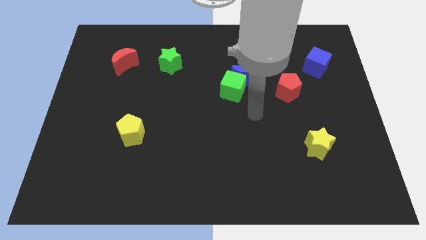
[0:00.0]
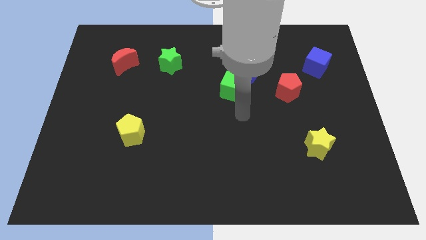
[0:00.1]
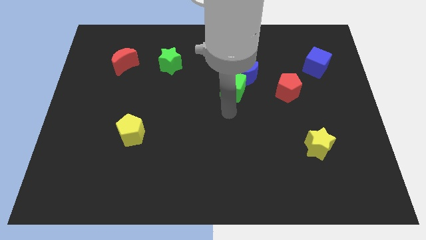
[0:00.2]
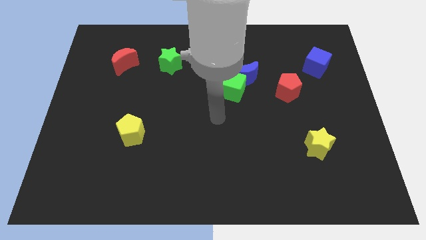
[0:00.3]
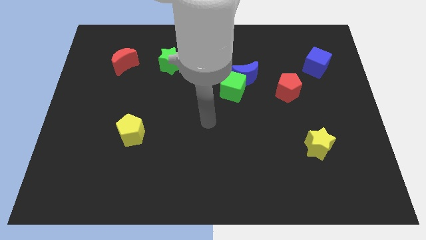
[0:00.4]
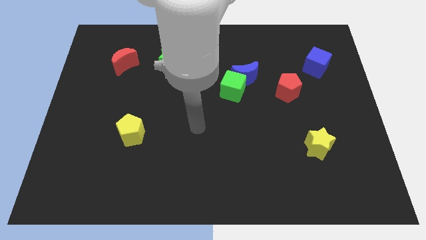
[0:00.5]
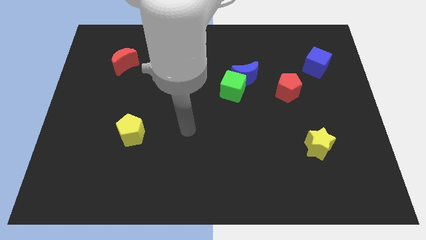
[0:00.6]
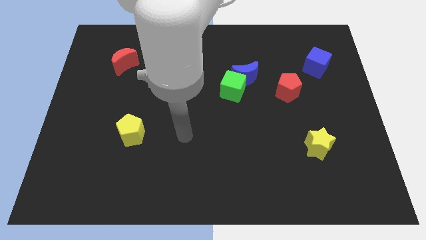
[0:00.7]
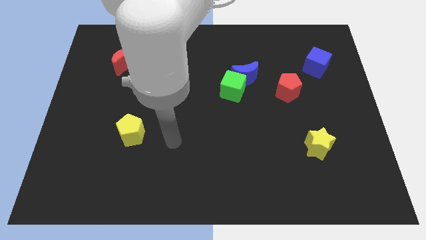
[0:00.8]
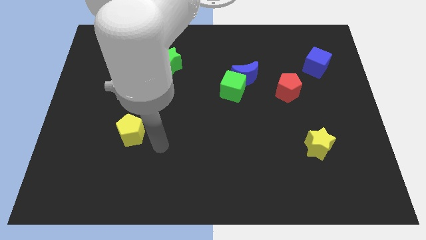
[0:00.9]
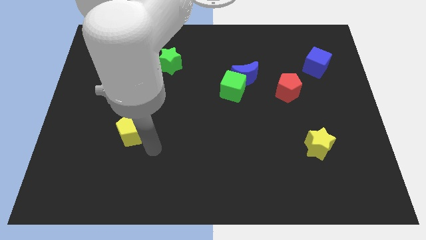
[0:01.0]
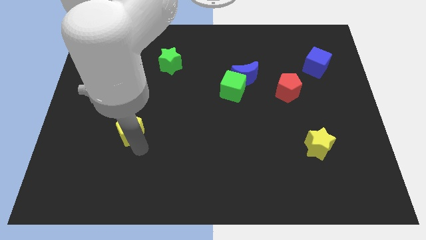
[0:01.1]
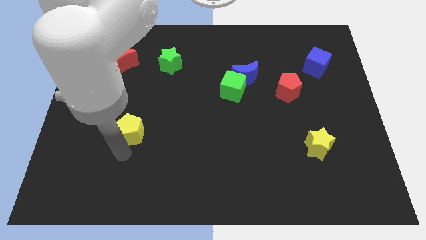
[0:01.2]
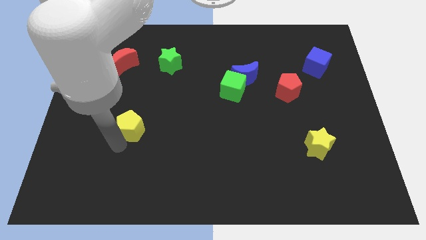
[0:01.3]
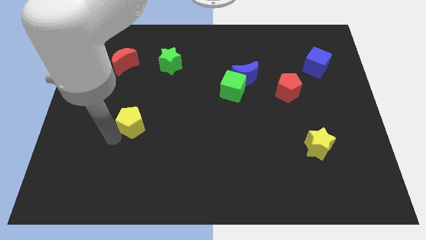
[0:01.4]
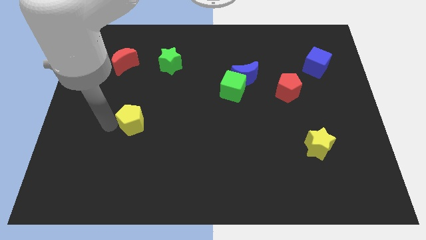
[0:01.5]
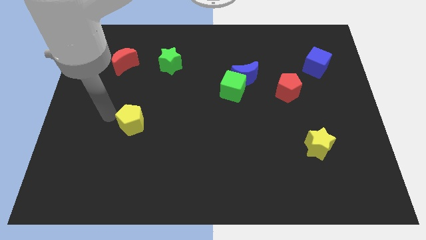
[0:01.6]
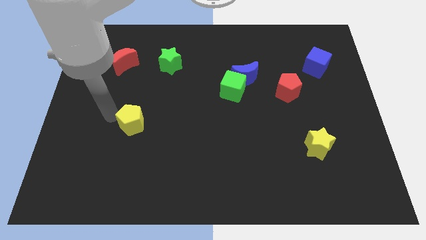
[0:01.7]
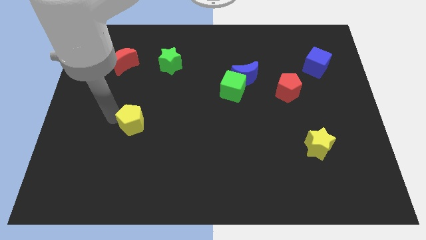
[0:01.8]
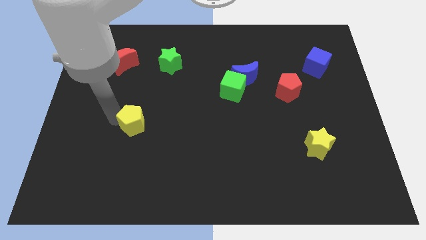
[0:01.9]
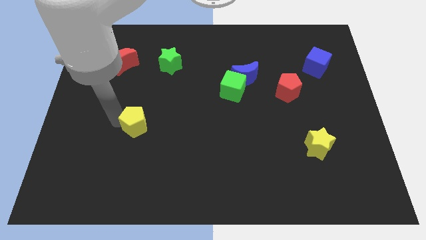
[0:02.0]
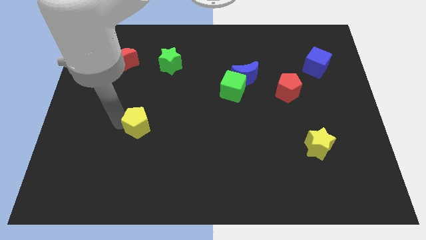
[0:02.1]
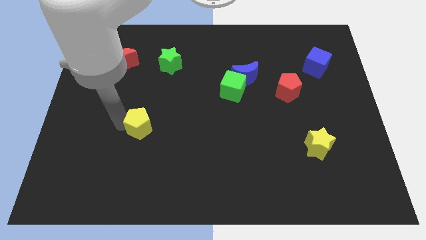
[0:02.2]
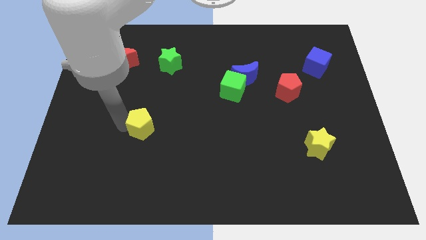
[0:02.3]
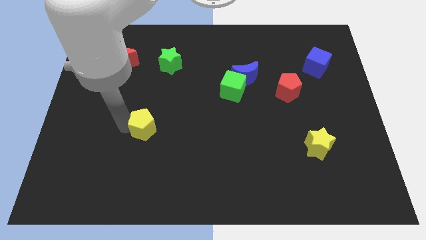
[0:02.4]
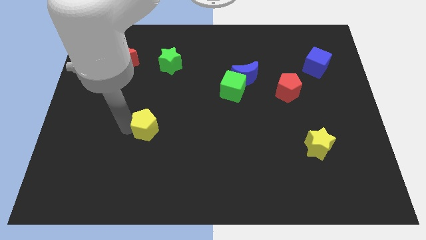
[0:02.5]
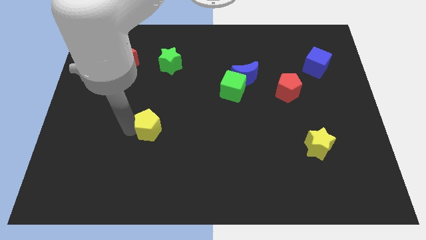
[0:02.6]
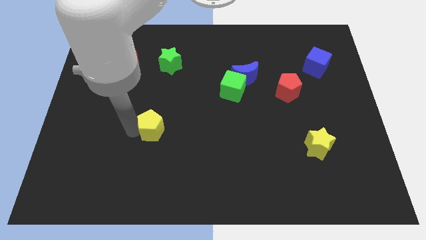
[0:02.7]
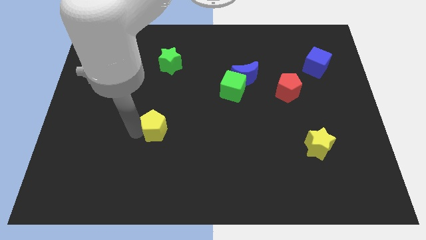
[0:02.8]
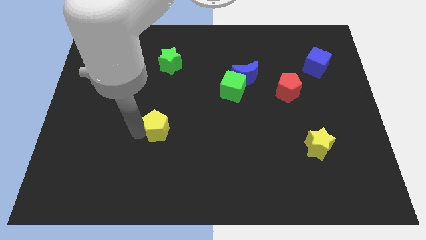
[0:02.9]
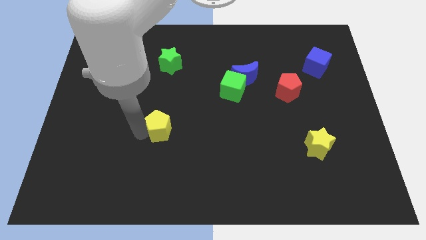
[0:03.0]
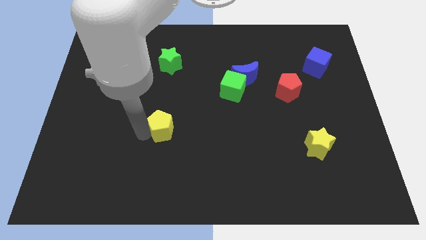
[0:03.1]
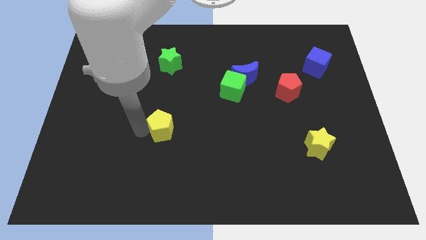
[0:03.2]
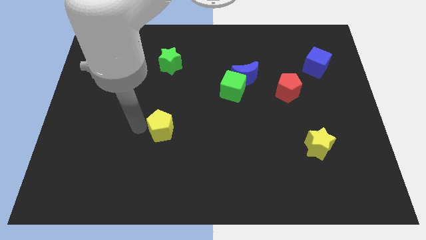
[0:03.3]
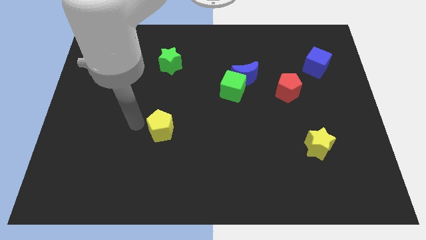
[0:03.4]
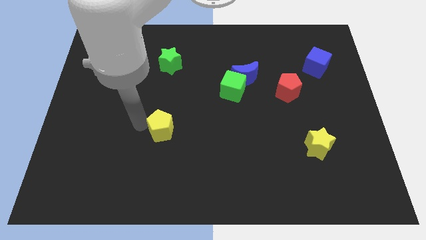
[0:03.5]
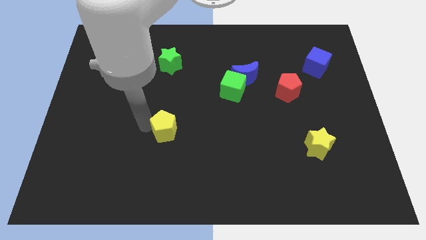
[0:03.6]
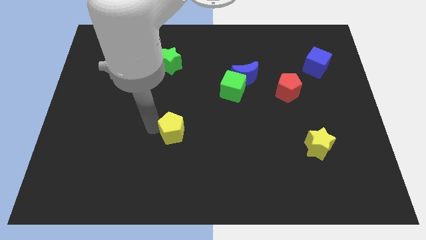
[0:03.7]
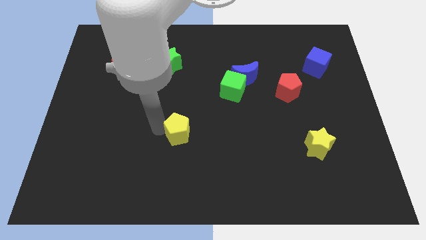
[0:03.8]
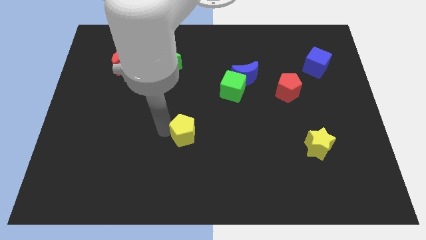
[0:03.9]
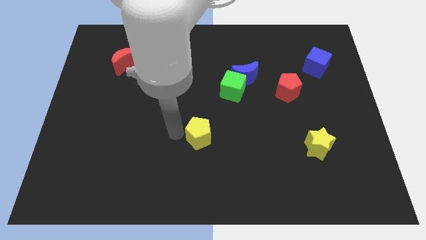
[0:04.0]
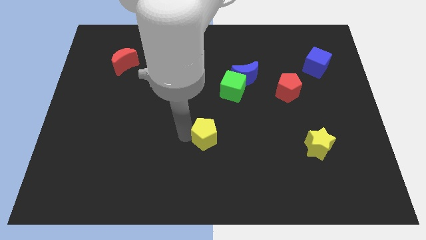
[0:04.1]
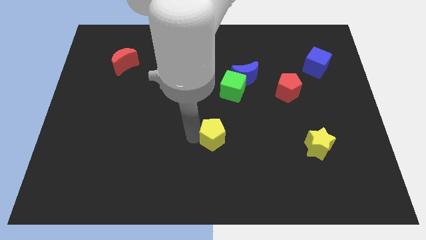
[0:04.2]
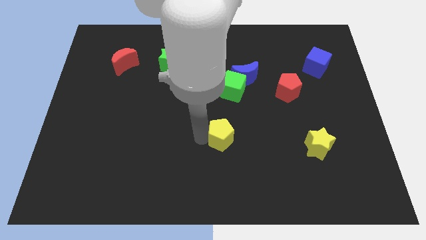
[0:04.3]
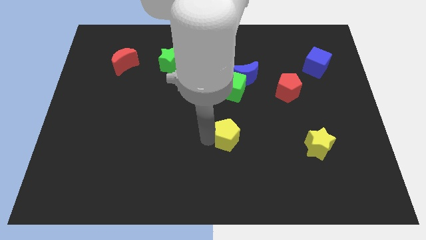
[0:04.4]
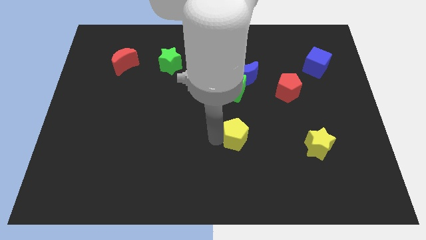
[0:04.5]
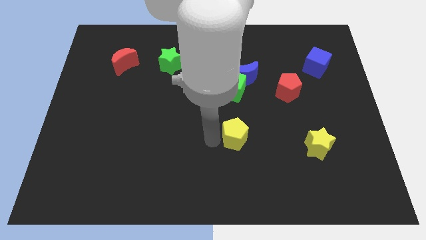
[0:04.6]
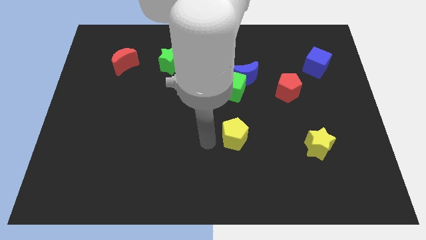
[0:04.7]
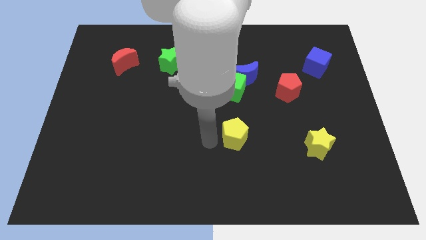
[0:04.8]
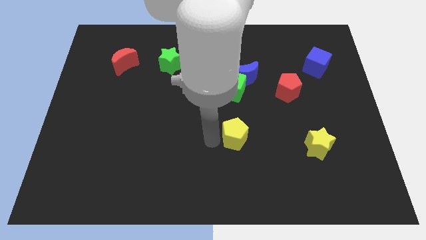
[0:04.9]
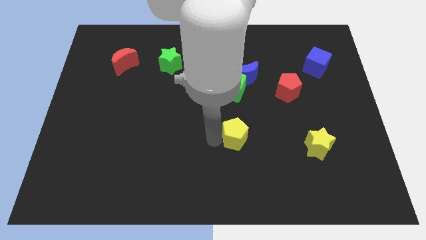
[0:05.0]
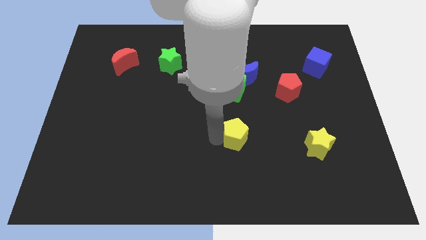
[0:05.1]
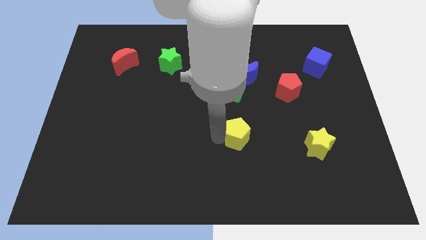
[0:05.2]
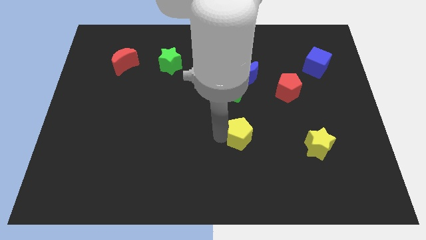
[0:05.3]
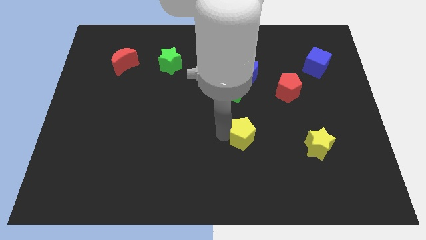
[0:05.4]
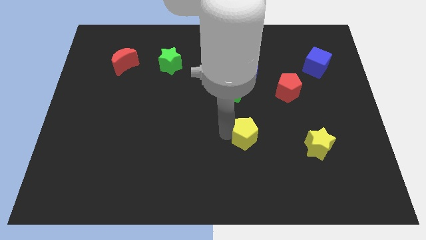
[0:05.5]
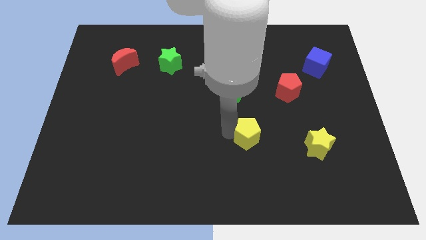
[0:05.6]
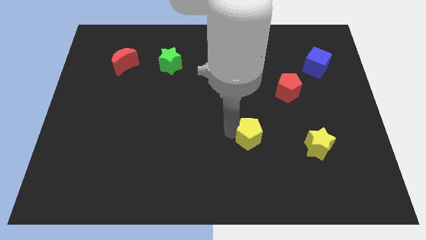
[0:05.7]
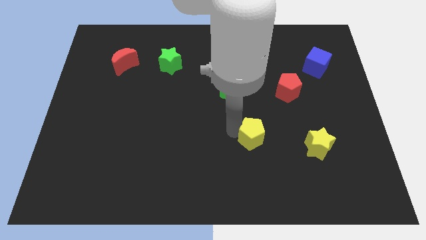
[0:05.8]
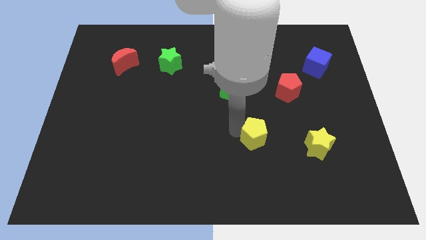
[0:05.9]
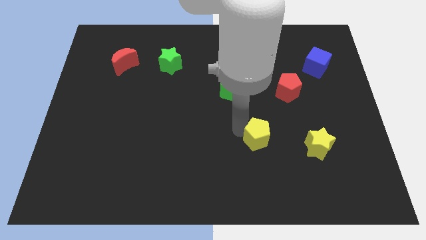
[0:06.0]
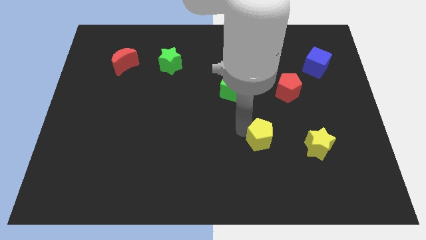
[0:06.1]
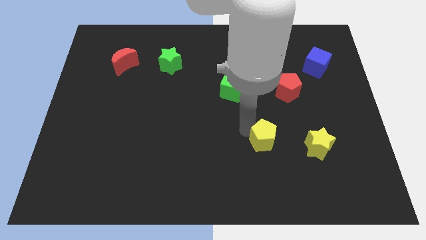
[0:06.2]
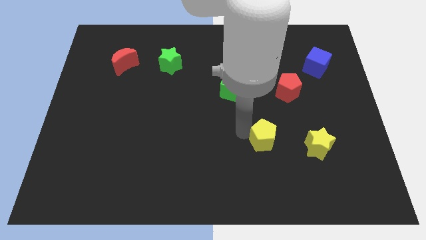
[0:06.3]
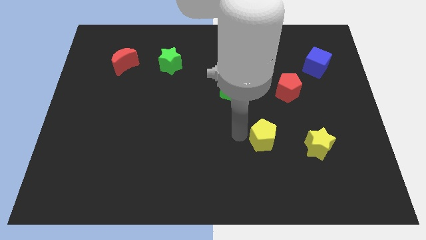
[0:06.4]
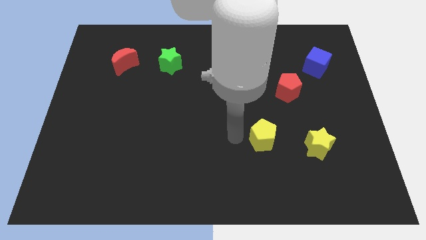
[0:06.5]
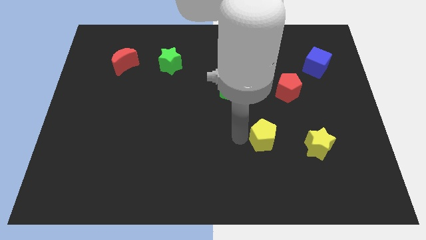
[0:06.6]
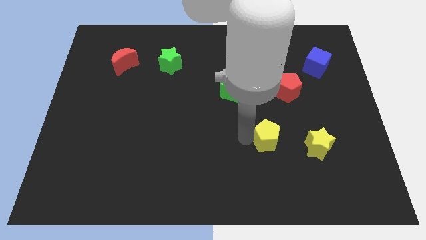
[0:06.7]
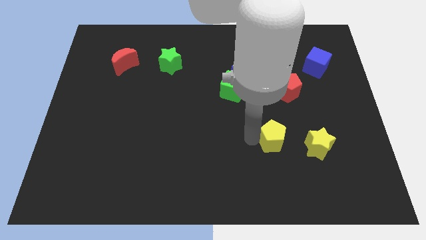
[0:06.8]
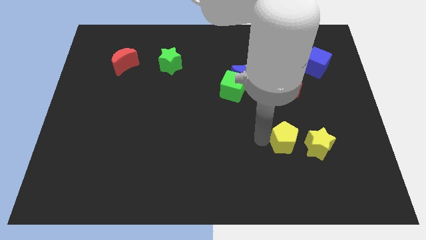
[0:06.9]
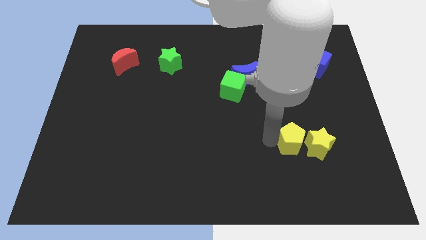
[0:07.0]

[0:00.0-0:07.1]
move the yellow pentagon towards the yellow star

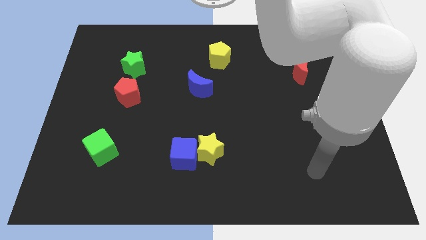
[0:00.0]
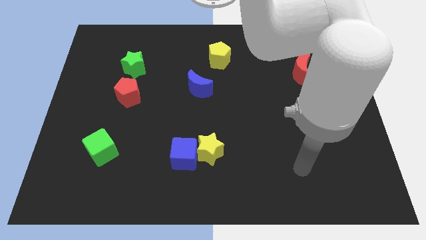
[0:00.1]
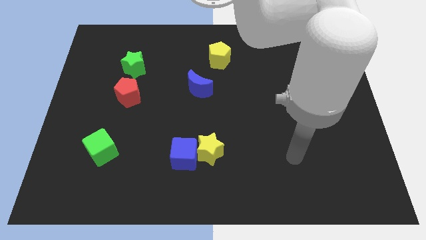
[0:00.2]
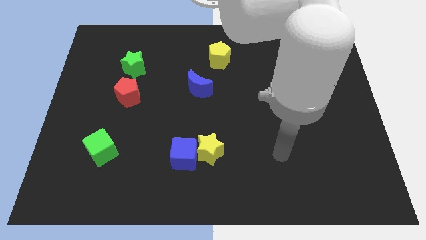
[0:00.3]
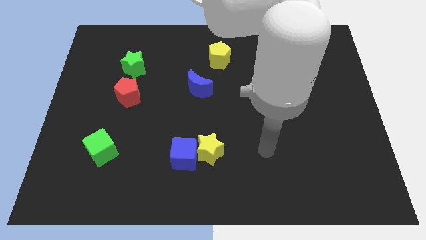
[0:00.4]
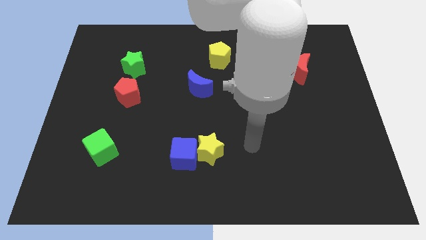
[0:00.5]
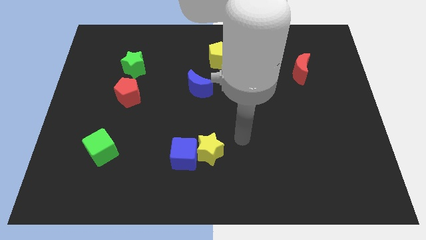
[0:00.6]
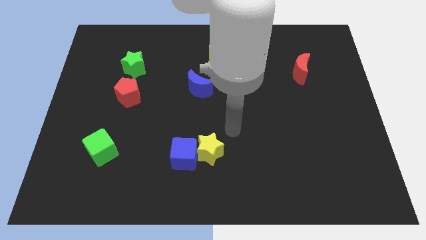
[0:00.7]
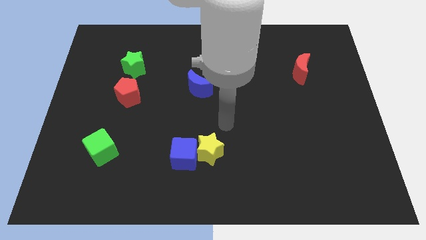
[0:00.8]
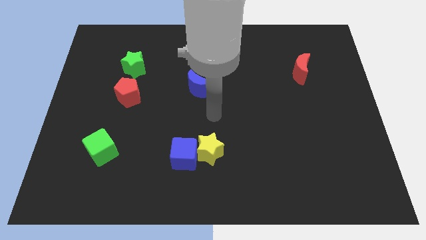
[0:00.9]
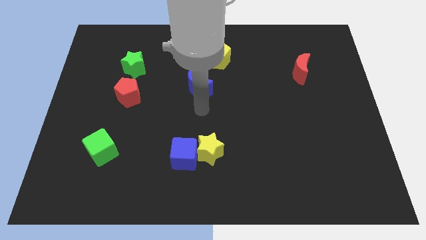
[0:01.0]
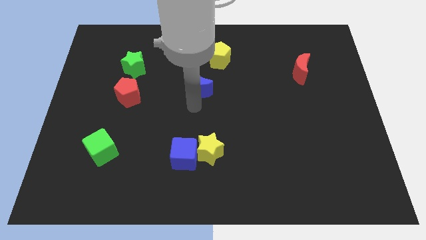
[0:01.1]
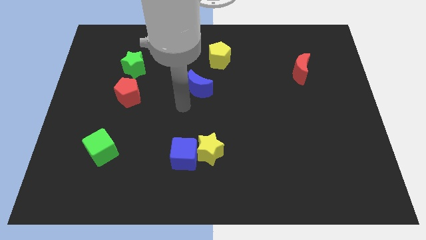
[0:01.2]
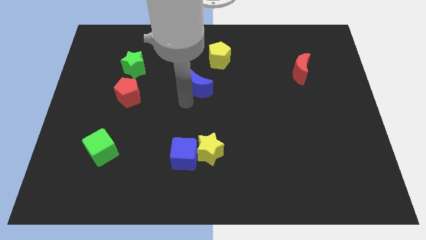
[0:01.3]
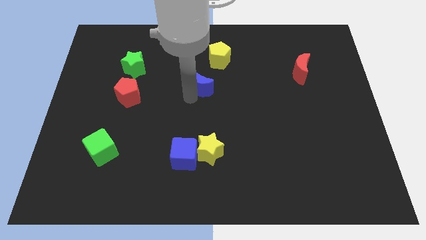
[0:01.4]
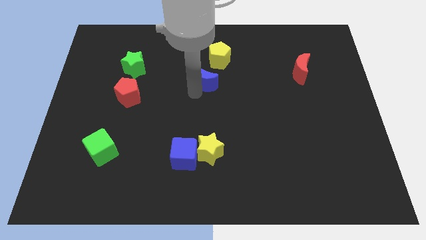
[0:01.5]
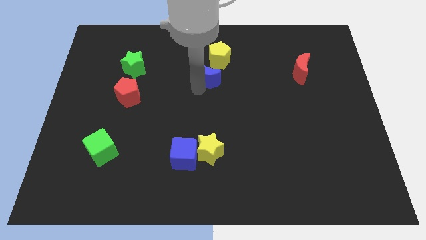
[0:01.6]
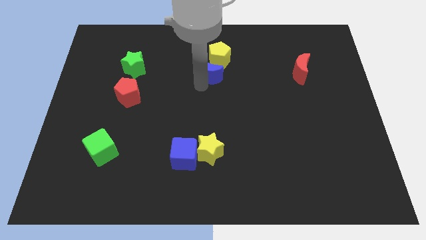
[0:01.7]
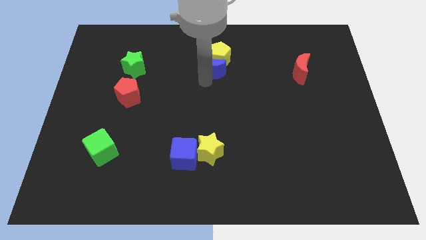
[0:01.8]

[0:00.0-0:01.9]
slide the blue moon to the yellow pentagon
